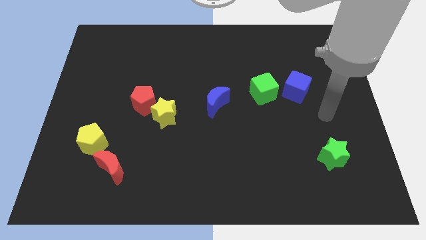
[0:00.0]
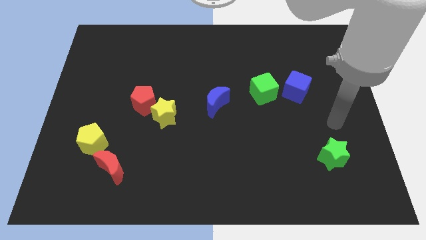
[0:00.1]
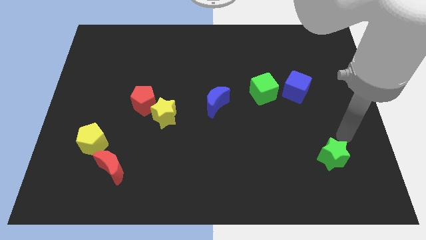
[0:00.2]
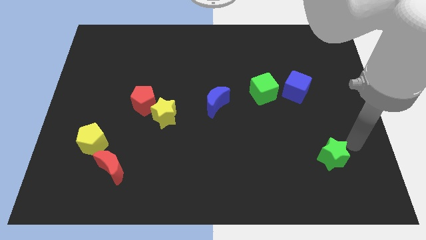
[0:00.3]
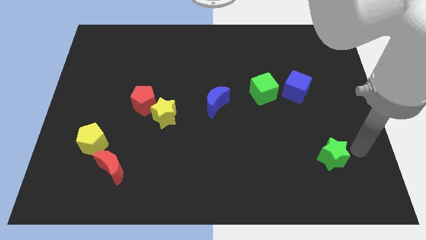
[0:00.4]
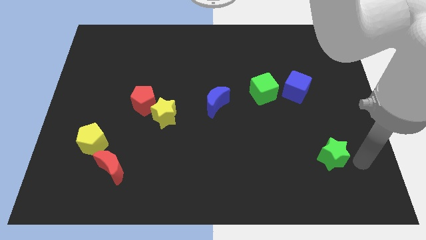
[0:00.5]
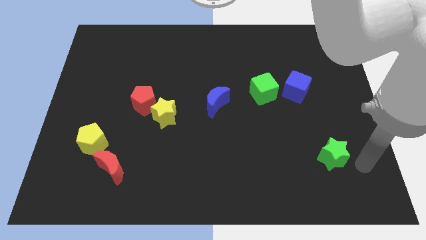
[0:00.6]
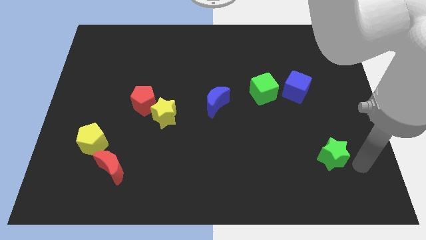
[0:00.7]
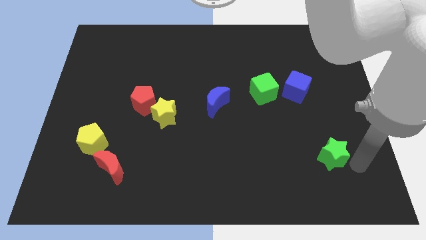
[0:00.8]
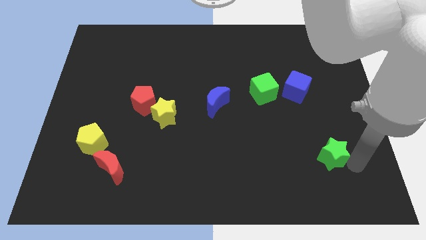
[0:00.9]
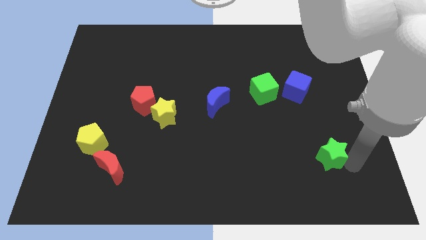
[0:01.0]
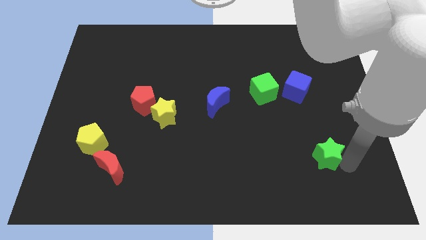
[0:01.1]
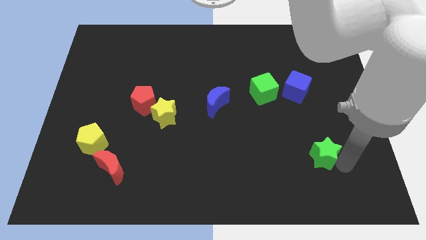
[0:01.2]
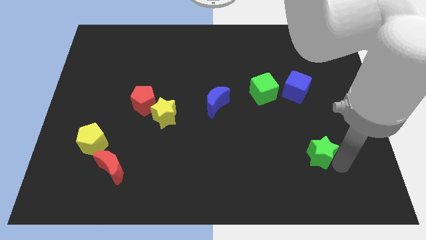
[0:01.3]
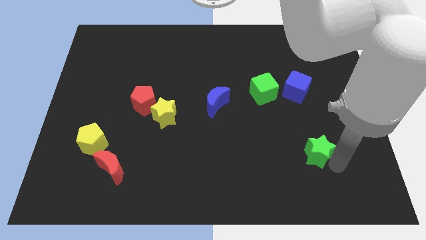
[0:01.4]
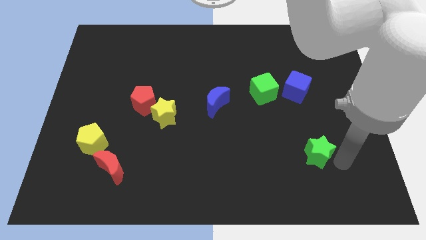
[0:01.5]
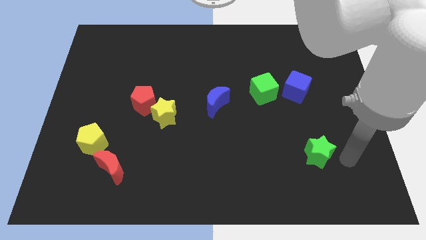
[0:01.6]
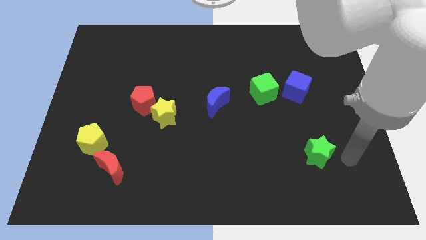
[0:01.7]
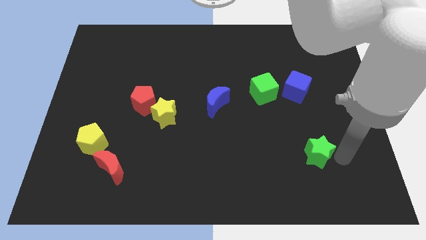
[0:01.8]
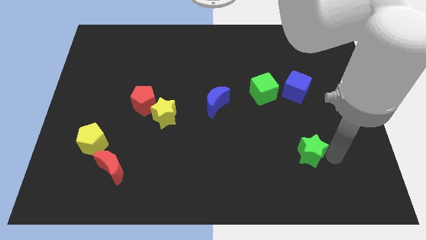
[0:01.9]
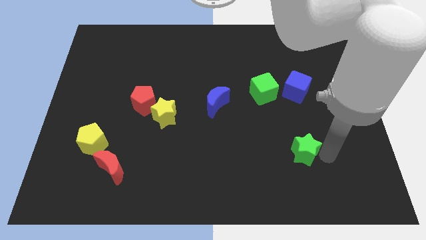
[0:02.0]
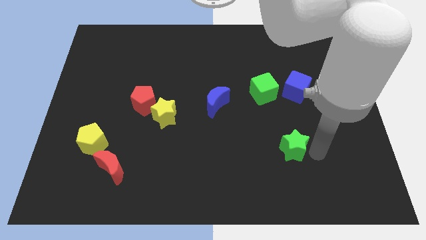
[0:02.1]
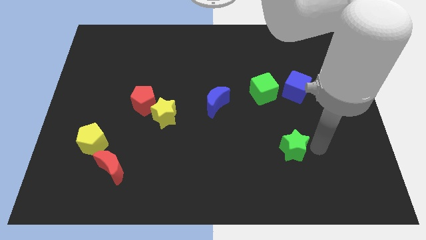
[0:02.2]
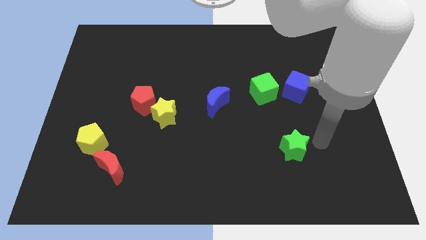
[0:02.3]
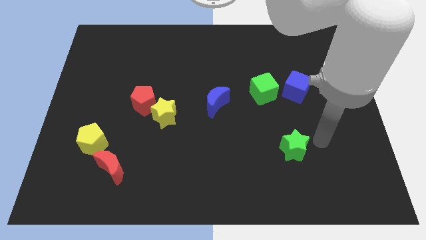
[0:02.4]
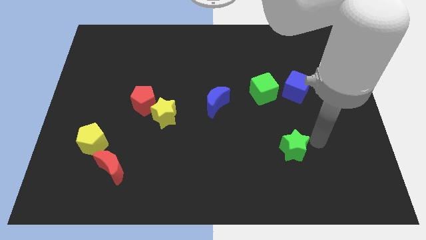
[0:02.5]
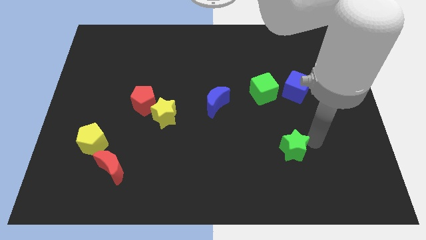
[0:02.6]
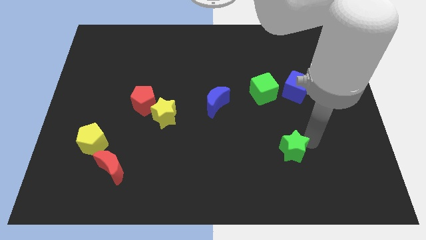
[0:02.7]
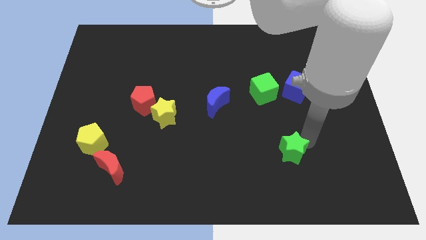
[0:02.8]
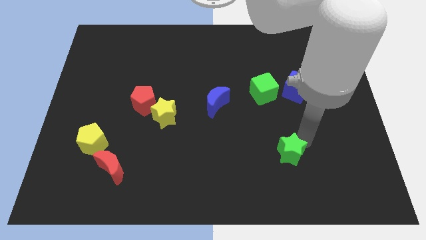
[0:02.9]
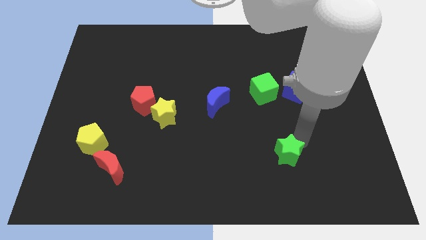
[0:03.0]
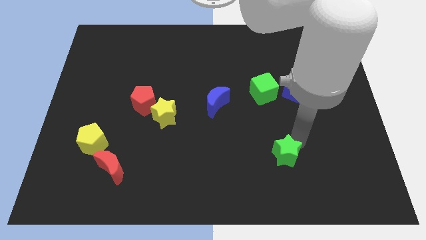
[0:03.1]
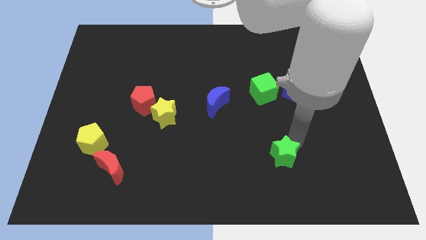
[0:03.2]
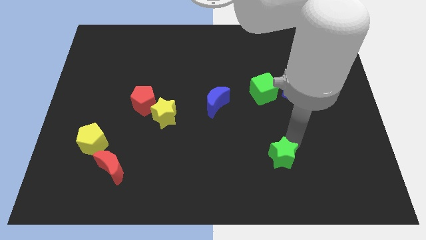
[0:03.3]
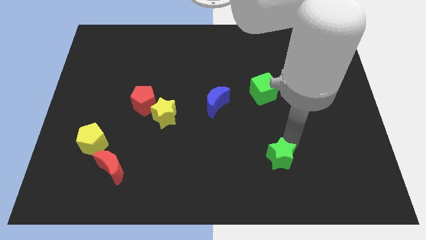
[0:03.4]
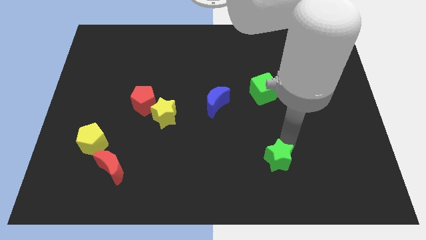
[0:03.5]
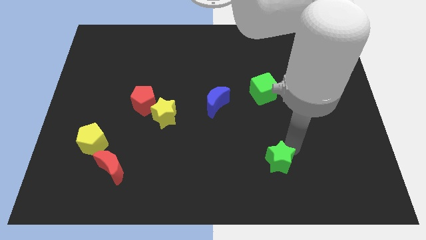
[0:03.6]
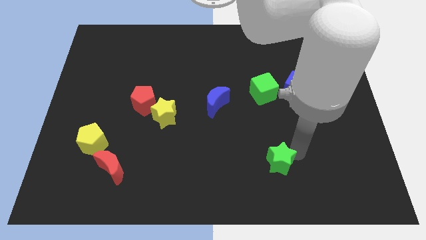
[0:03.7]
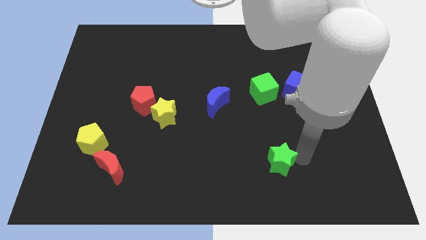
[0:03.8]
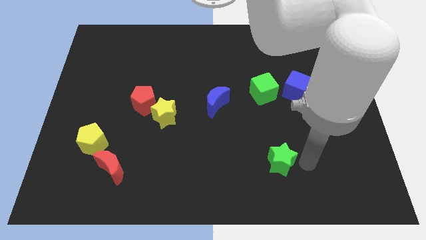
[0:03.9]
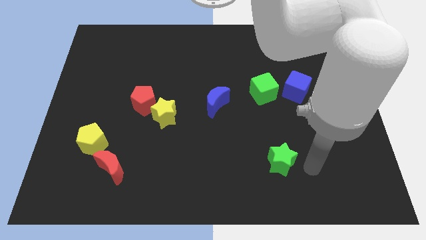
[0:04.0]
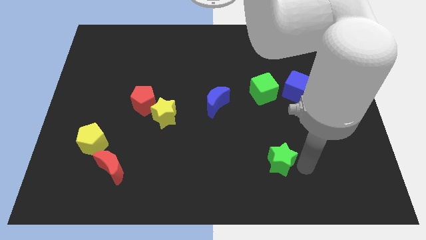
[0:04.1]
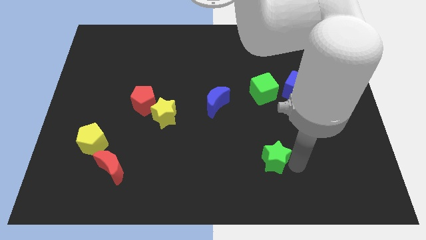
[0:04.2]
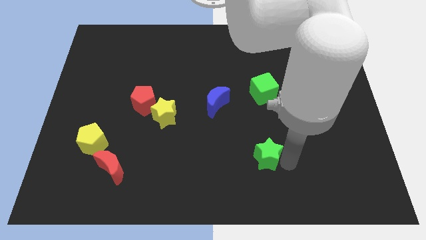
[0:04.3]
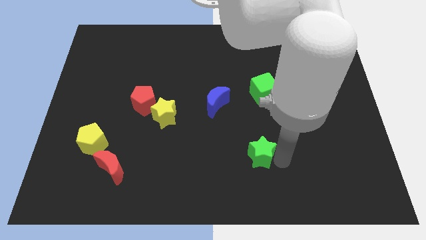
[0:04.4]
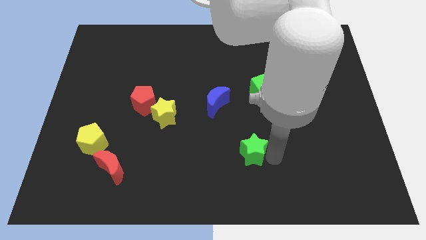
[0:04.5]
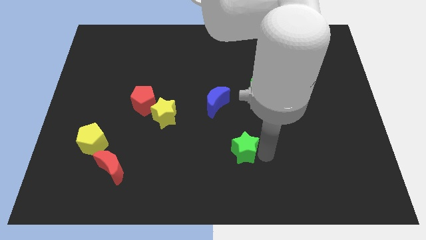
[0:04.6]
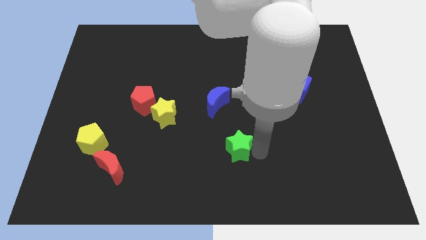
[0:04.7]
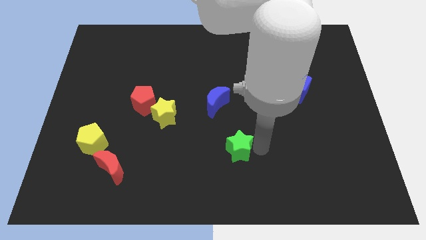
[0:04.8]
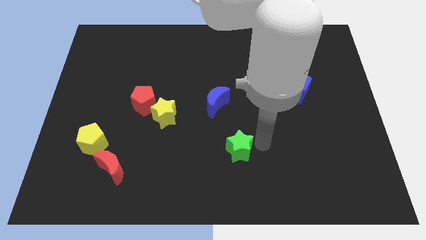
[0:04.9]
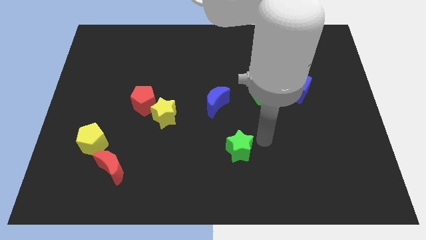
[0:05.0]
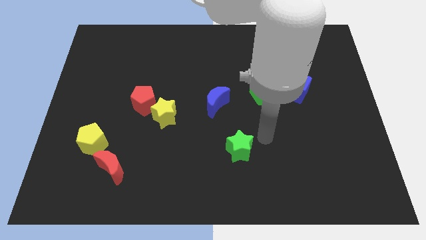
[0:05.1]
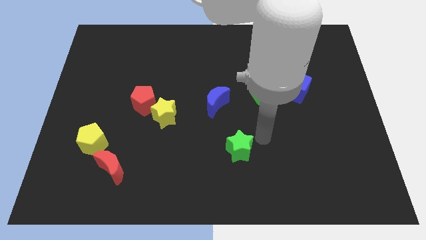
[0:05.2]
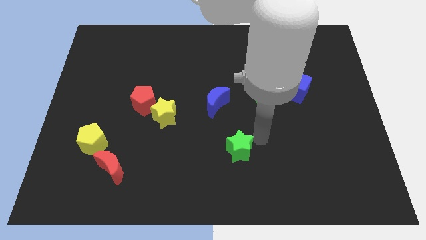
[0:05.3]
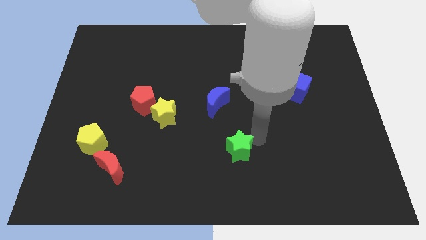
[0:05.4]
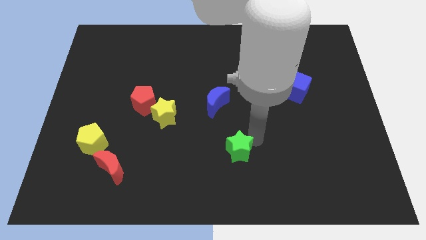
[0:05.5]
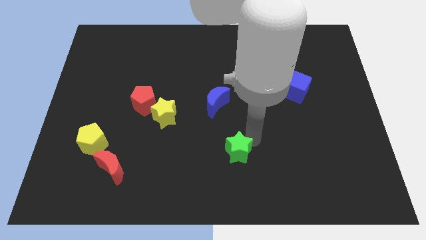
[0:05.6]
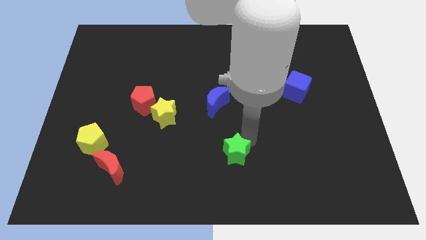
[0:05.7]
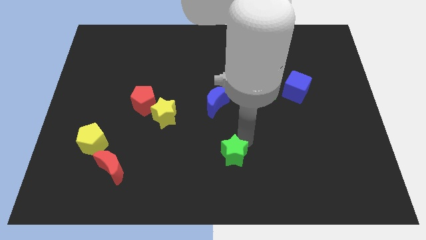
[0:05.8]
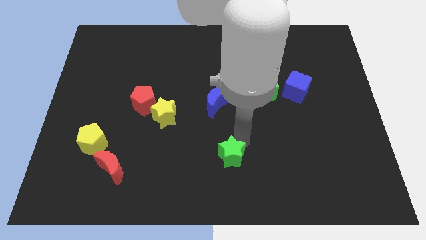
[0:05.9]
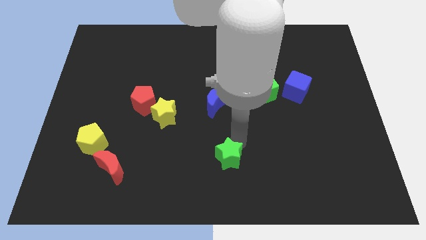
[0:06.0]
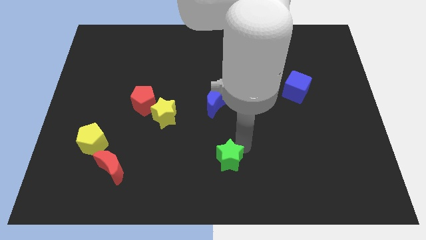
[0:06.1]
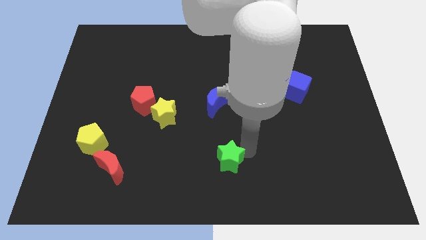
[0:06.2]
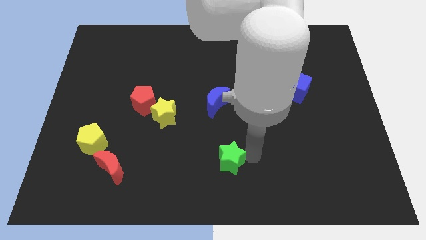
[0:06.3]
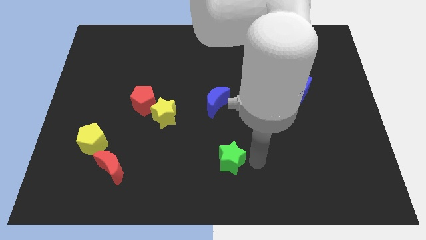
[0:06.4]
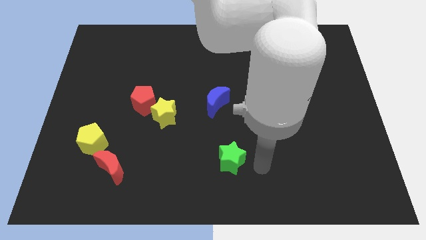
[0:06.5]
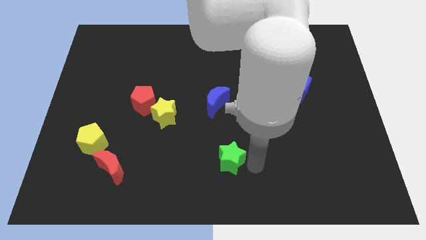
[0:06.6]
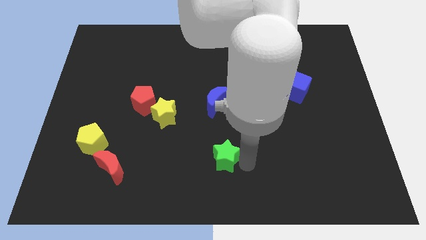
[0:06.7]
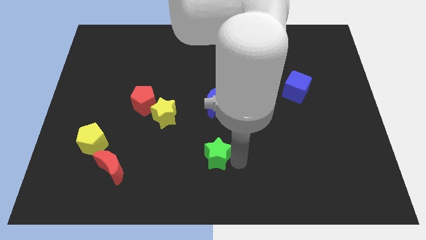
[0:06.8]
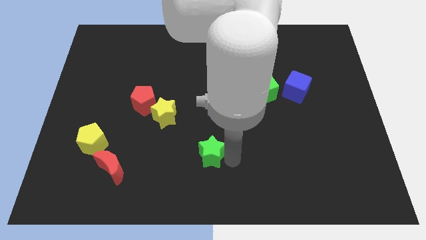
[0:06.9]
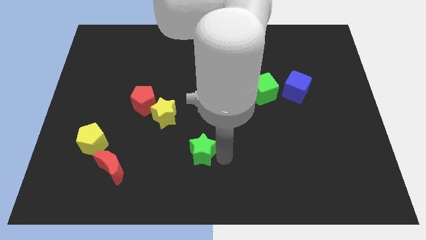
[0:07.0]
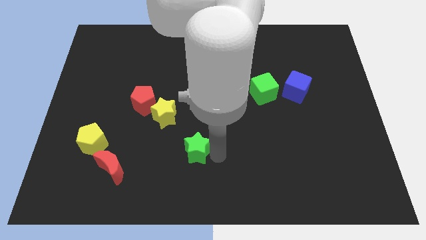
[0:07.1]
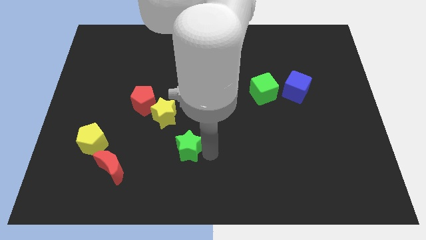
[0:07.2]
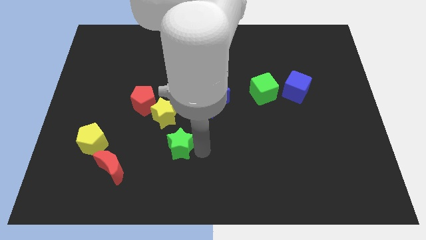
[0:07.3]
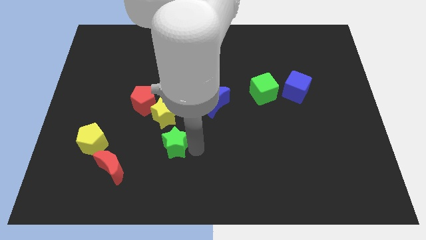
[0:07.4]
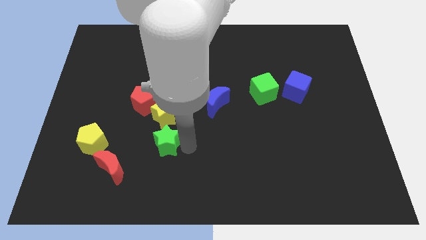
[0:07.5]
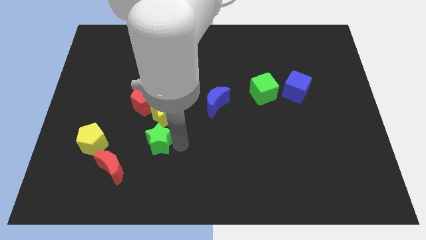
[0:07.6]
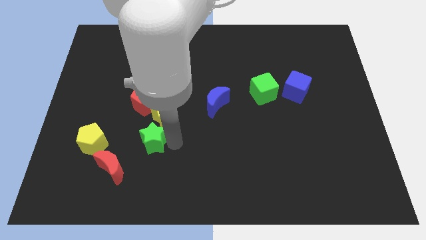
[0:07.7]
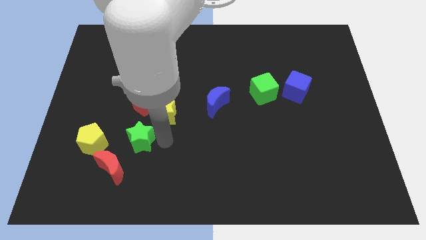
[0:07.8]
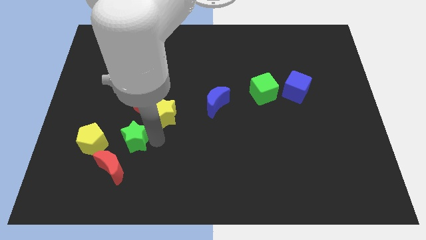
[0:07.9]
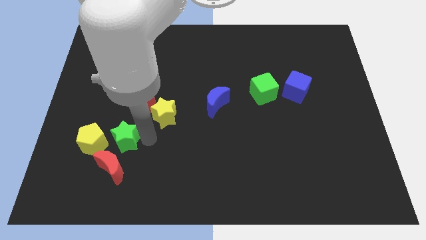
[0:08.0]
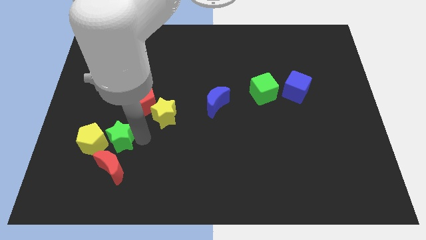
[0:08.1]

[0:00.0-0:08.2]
push the green star next to the yellow pentagon
